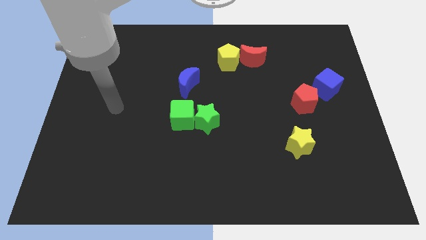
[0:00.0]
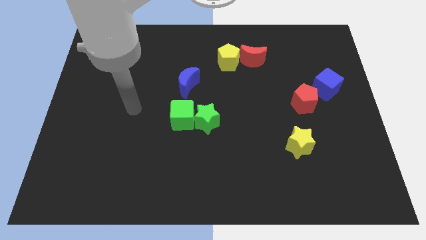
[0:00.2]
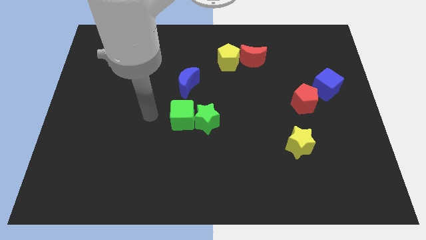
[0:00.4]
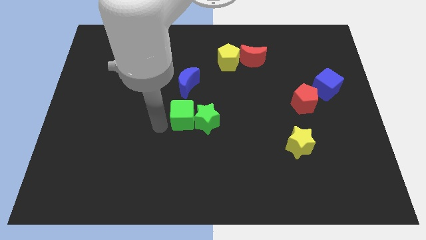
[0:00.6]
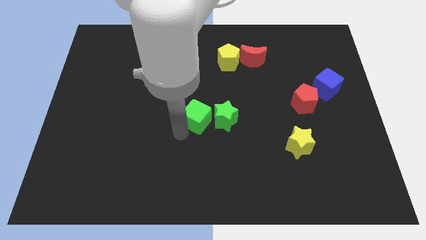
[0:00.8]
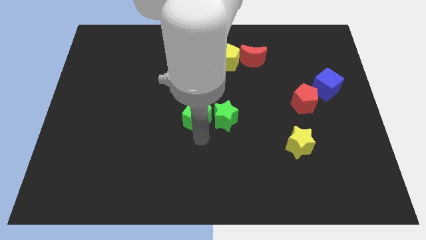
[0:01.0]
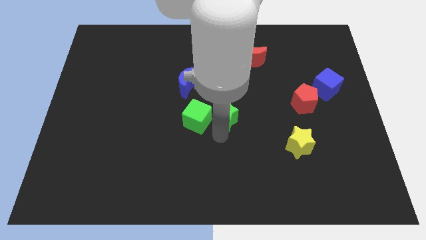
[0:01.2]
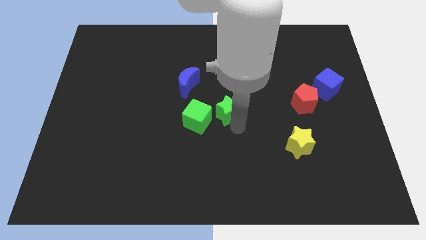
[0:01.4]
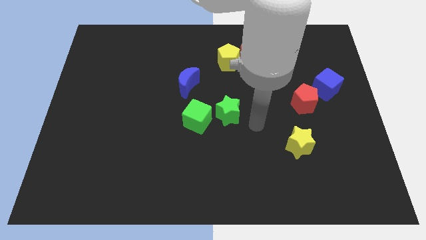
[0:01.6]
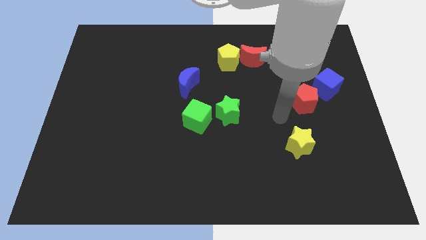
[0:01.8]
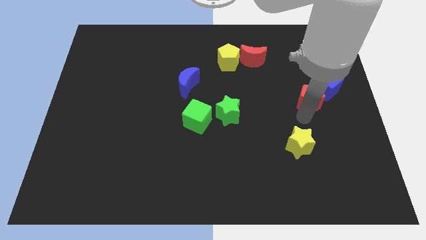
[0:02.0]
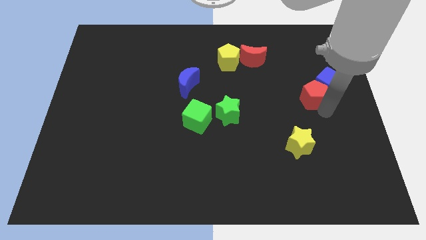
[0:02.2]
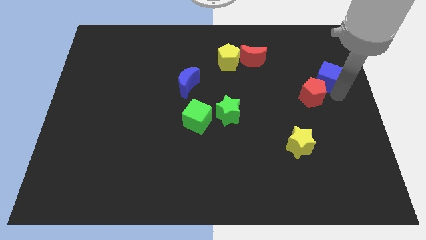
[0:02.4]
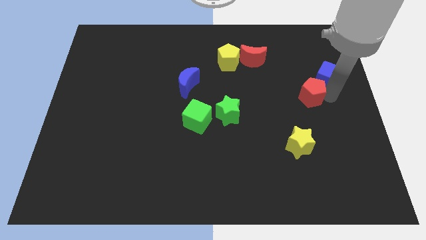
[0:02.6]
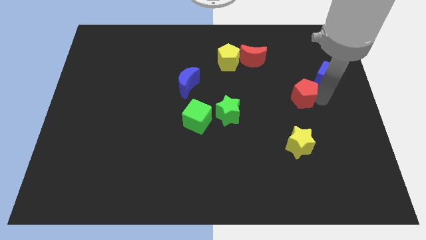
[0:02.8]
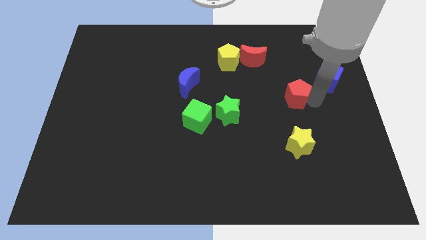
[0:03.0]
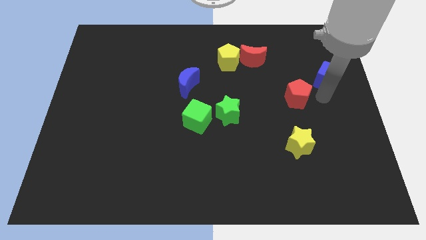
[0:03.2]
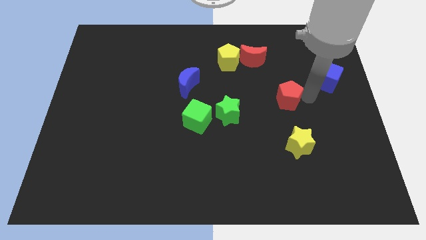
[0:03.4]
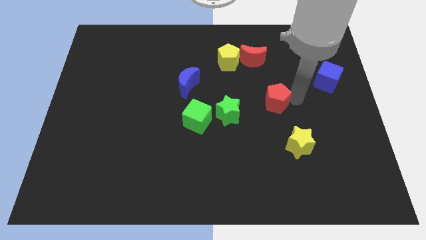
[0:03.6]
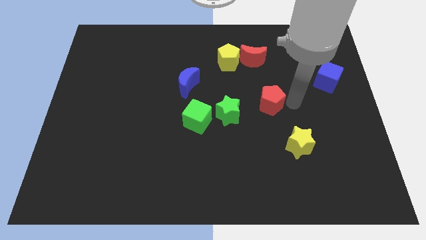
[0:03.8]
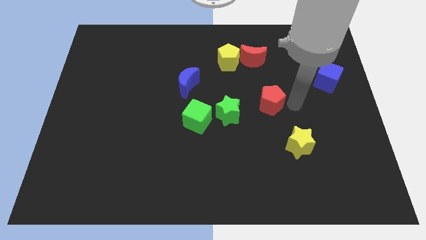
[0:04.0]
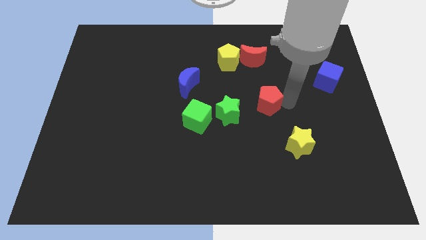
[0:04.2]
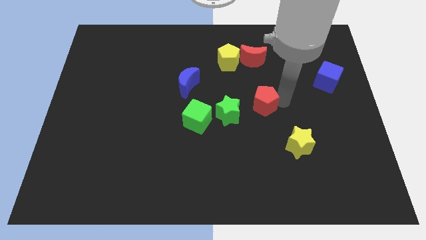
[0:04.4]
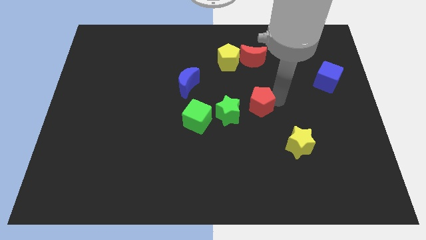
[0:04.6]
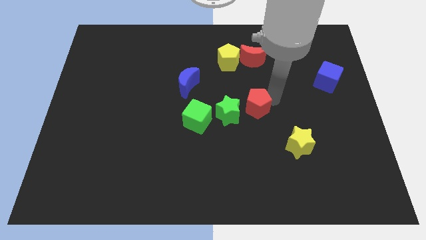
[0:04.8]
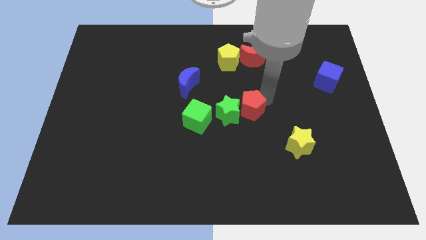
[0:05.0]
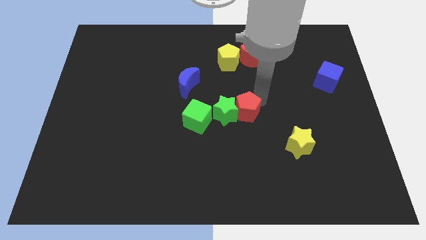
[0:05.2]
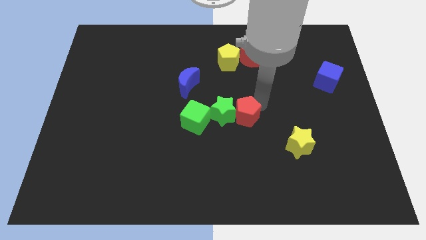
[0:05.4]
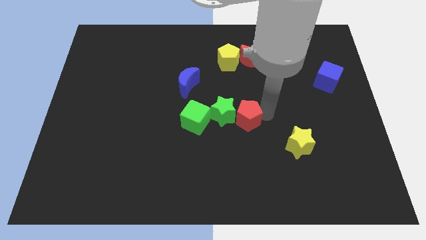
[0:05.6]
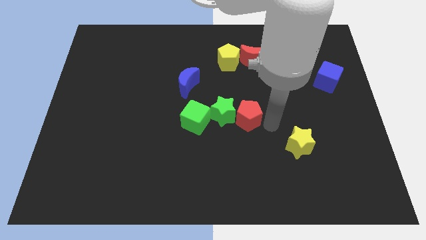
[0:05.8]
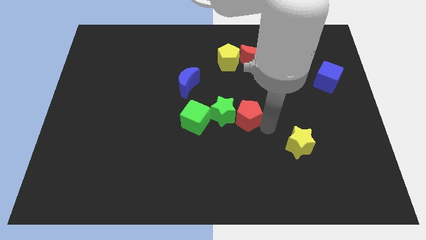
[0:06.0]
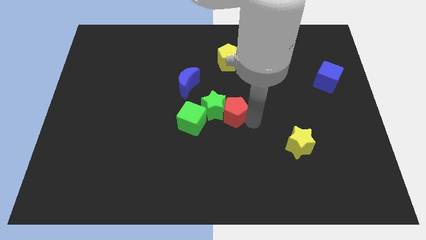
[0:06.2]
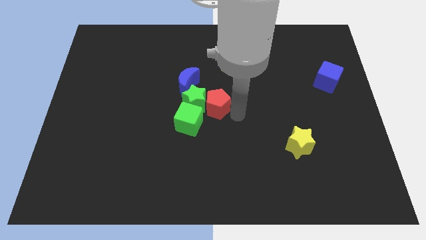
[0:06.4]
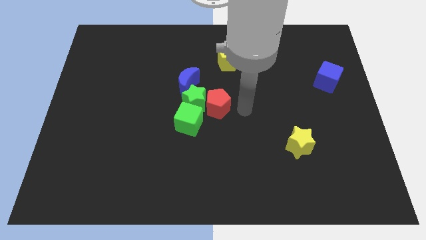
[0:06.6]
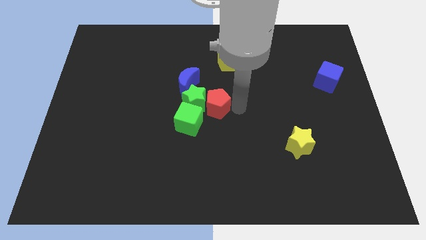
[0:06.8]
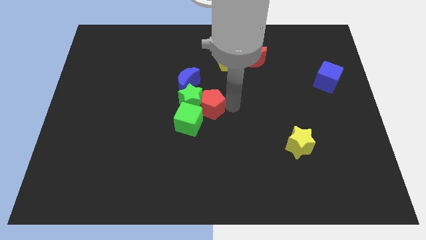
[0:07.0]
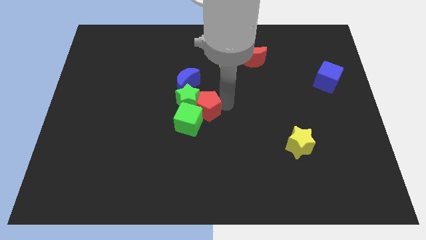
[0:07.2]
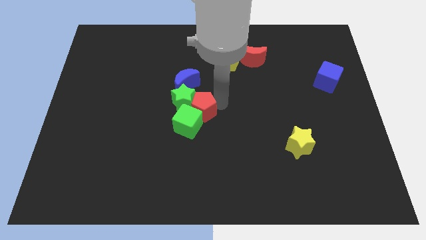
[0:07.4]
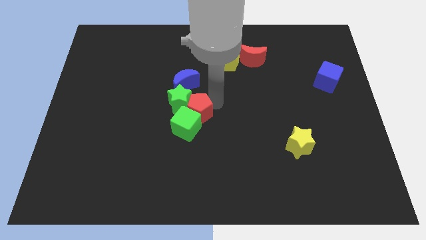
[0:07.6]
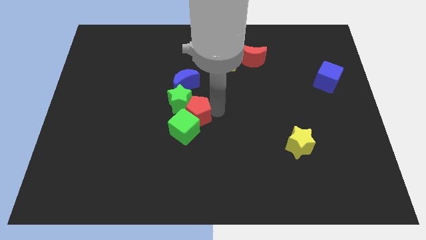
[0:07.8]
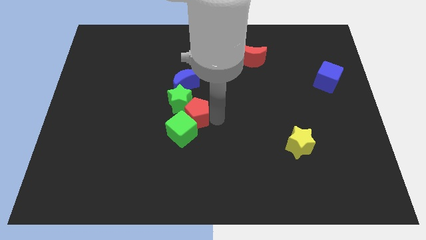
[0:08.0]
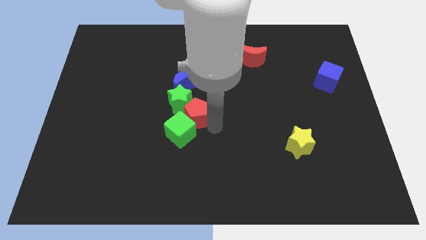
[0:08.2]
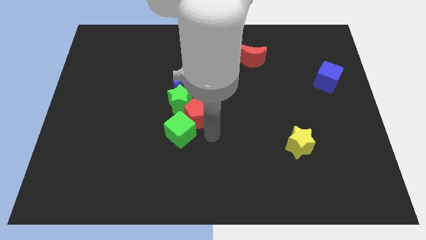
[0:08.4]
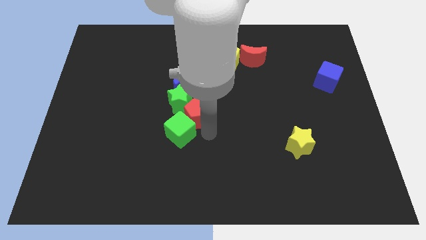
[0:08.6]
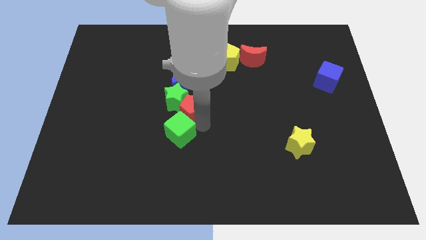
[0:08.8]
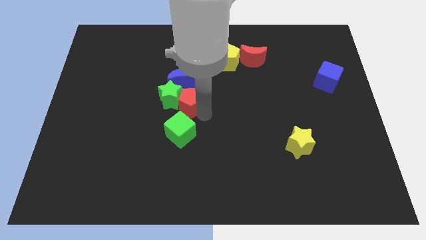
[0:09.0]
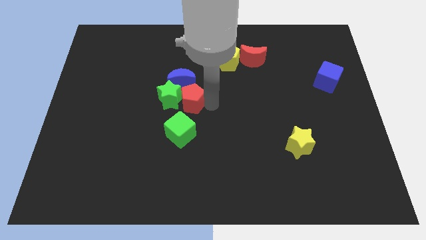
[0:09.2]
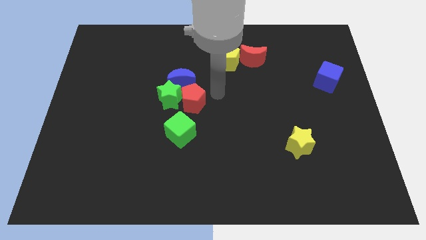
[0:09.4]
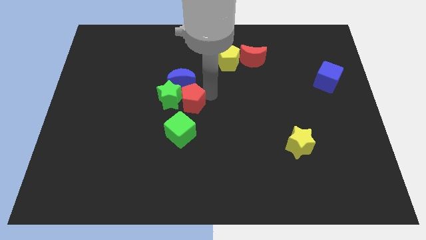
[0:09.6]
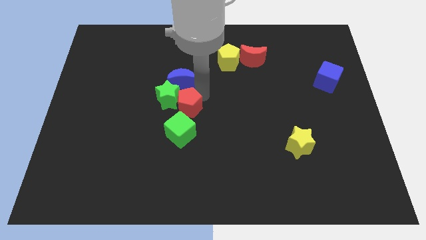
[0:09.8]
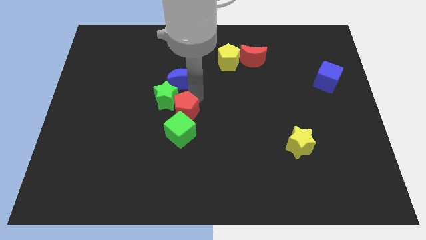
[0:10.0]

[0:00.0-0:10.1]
slide the red pentagon to the top left of the green cube

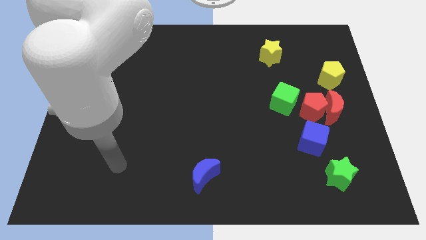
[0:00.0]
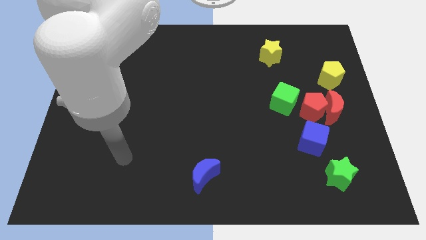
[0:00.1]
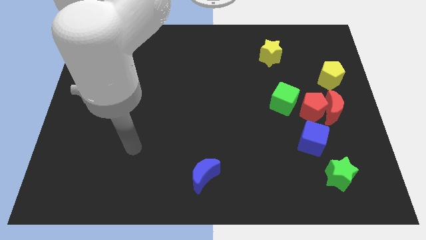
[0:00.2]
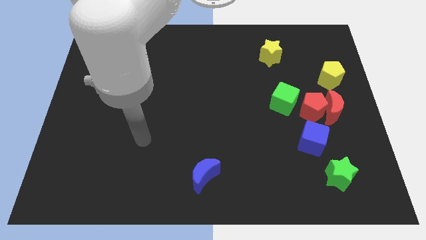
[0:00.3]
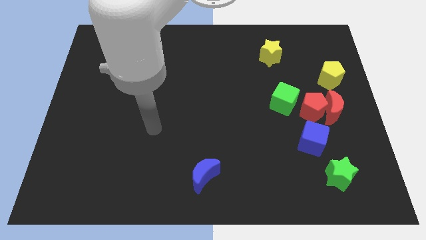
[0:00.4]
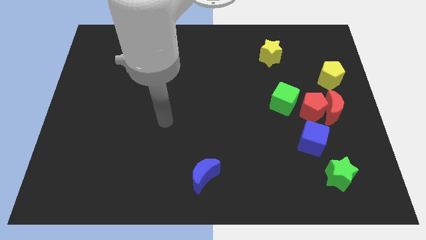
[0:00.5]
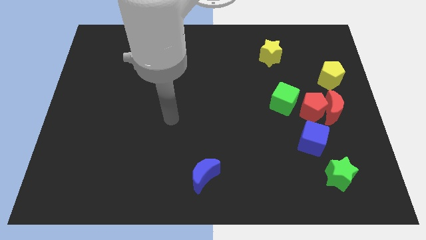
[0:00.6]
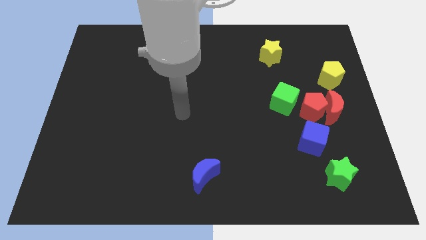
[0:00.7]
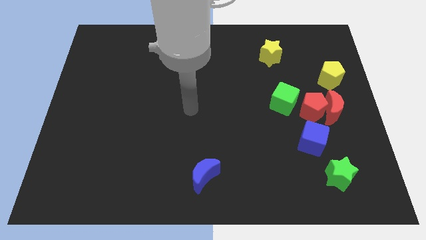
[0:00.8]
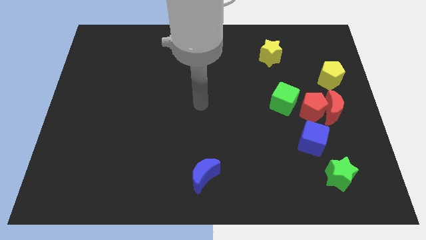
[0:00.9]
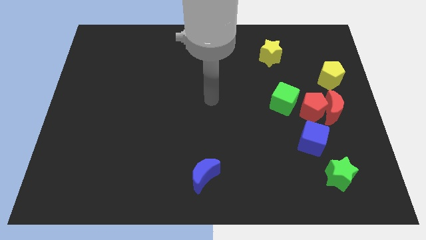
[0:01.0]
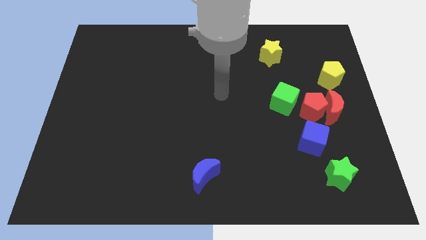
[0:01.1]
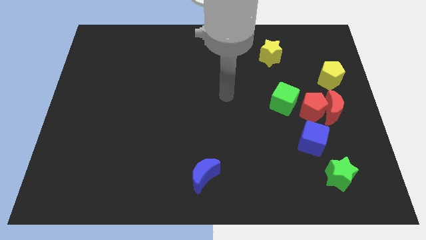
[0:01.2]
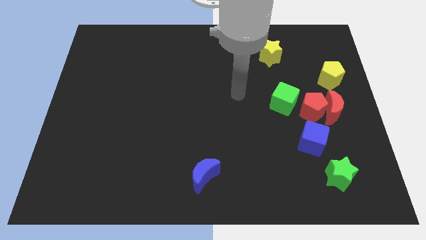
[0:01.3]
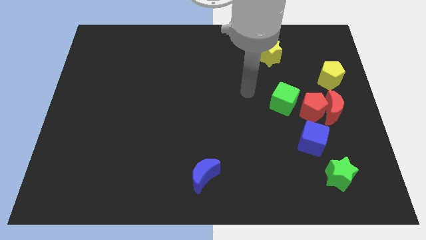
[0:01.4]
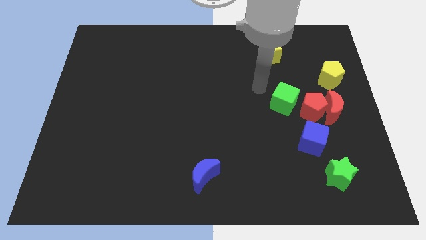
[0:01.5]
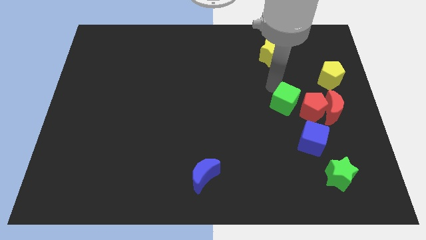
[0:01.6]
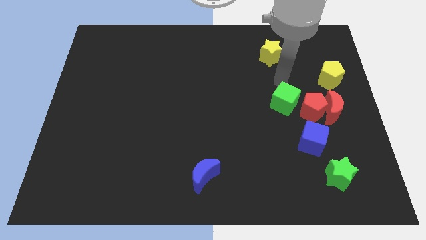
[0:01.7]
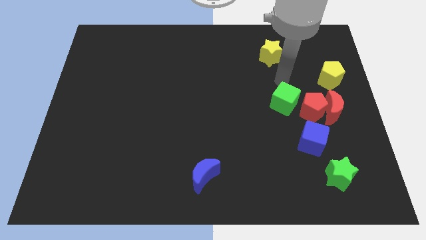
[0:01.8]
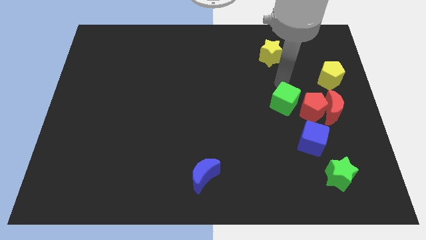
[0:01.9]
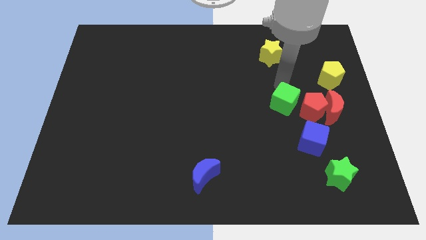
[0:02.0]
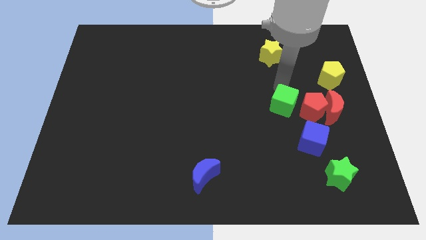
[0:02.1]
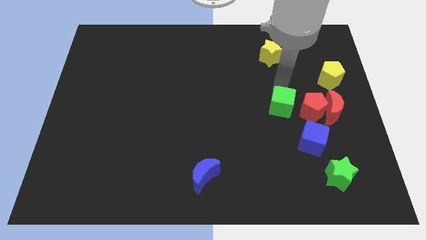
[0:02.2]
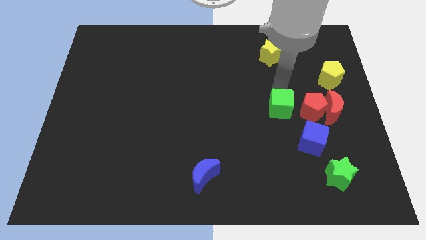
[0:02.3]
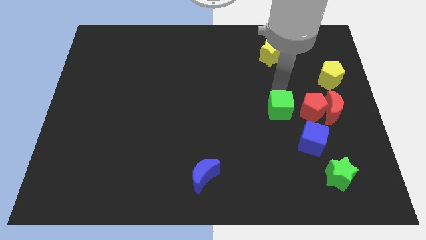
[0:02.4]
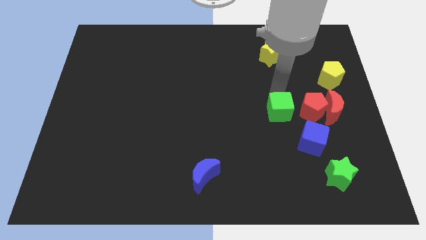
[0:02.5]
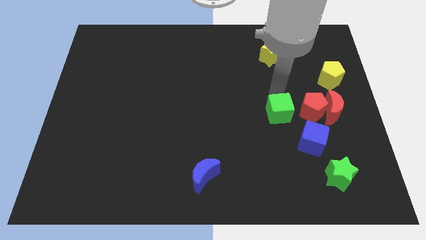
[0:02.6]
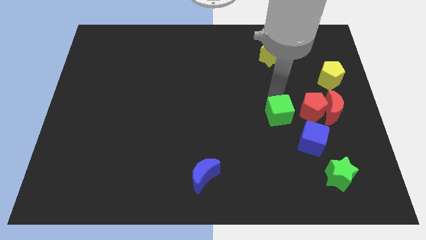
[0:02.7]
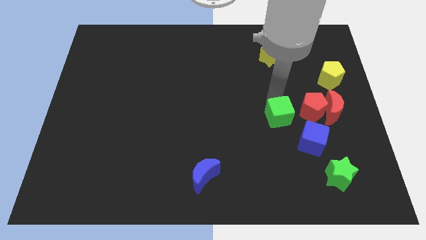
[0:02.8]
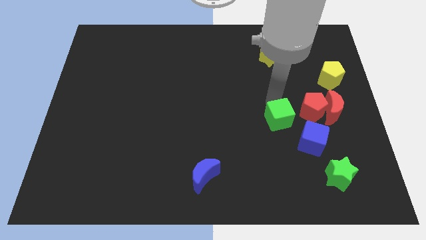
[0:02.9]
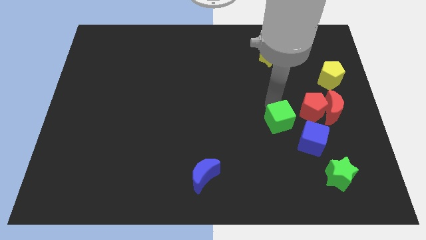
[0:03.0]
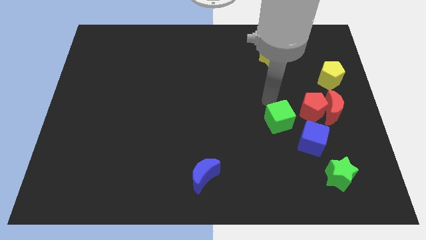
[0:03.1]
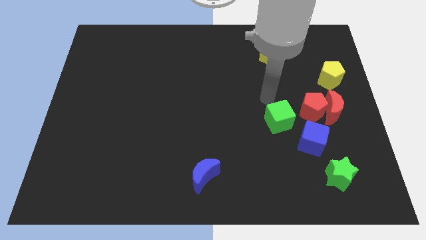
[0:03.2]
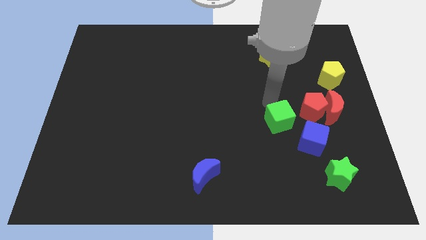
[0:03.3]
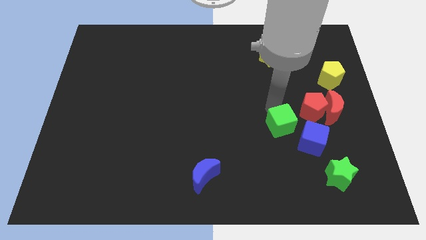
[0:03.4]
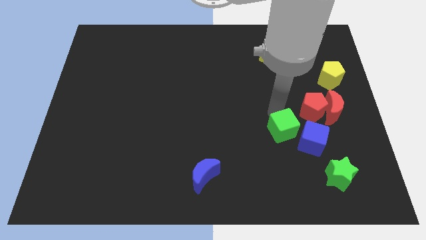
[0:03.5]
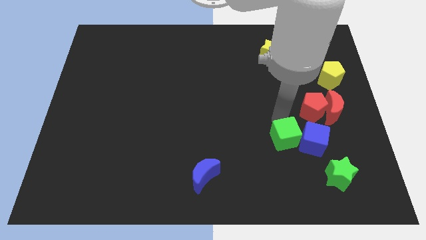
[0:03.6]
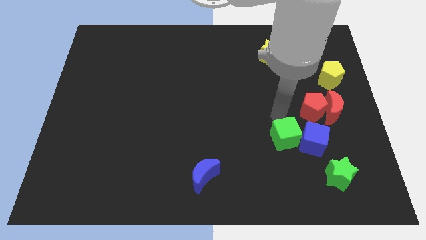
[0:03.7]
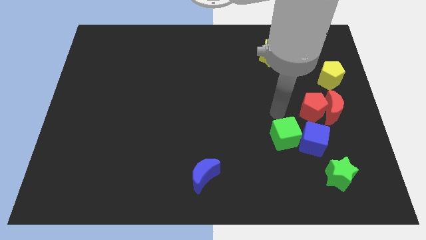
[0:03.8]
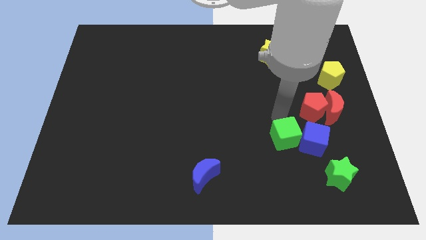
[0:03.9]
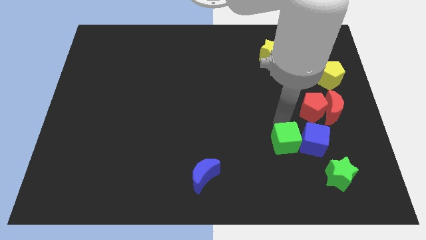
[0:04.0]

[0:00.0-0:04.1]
put the green cube to the bottom left side of the blue cube
